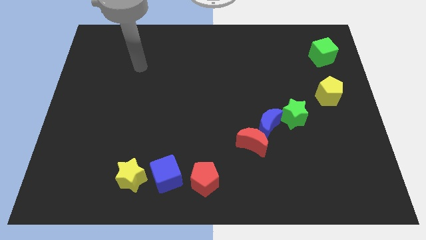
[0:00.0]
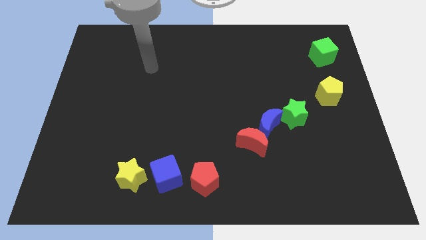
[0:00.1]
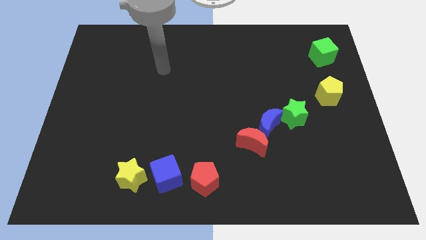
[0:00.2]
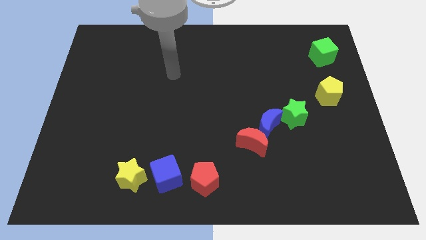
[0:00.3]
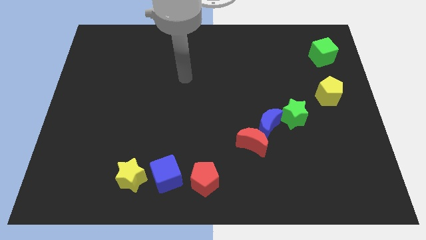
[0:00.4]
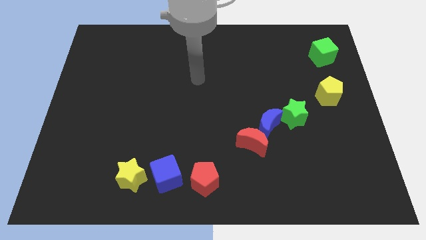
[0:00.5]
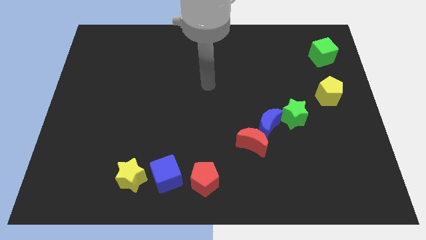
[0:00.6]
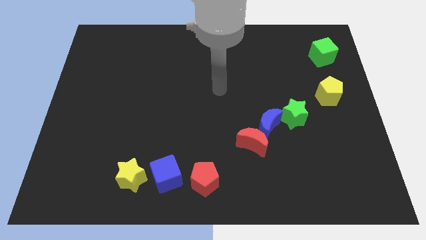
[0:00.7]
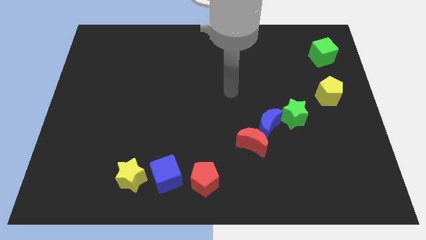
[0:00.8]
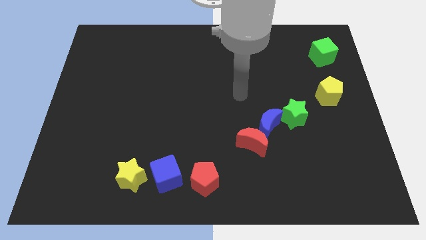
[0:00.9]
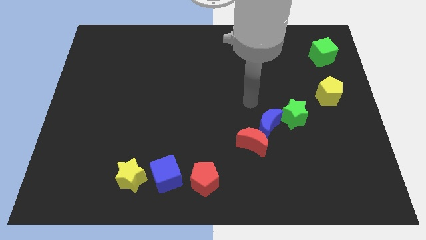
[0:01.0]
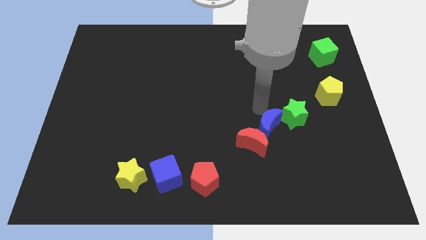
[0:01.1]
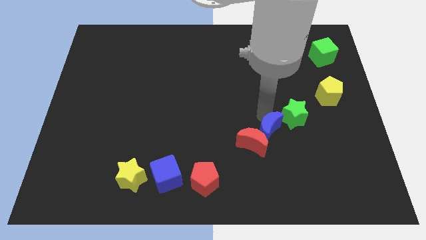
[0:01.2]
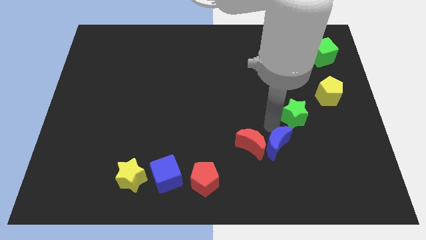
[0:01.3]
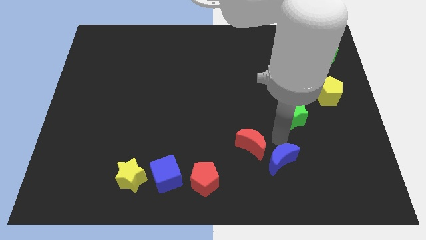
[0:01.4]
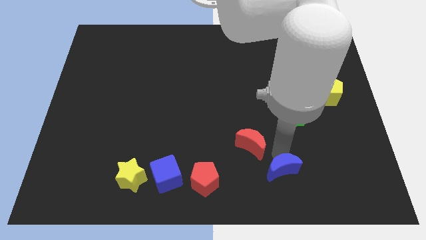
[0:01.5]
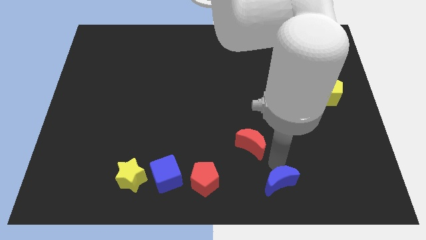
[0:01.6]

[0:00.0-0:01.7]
move the red moon away from the blue moon

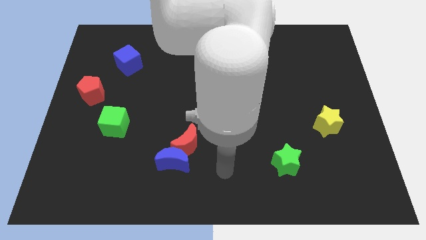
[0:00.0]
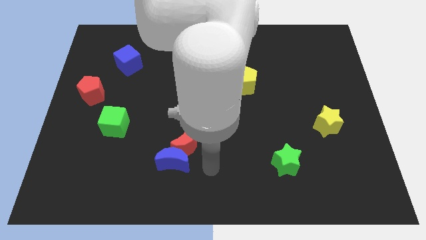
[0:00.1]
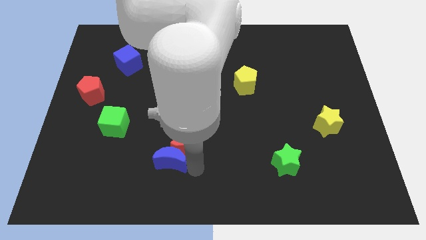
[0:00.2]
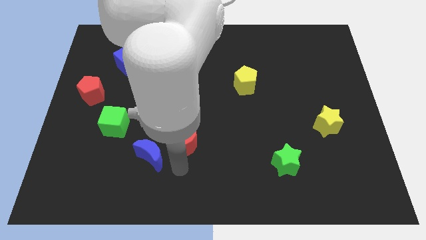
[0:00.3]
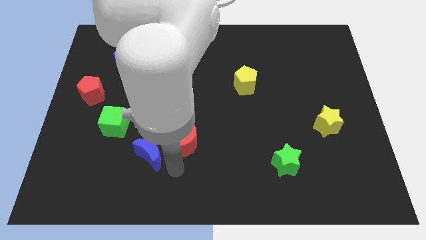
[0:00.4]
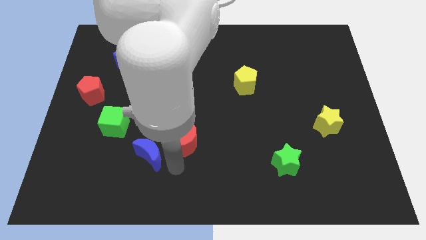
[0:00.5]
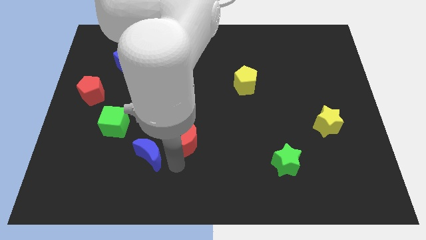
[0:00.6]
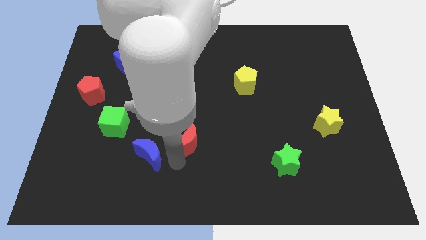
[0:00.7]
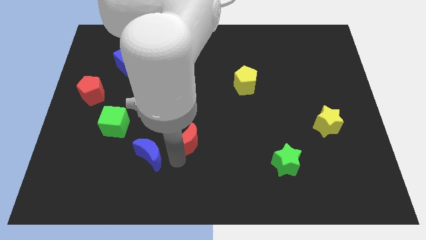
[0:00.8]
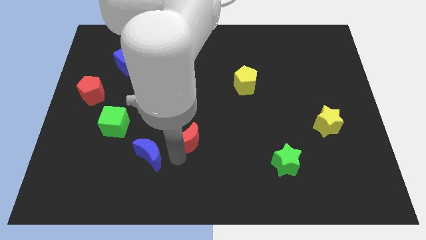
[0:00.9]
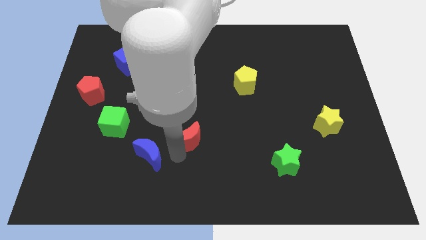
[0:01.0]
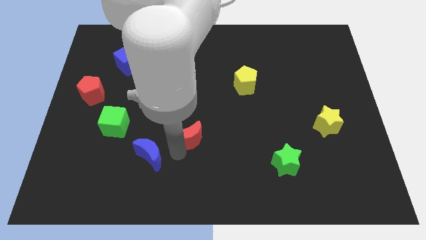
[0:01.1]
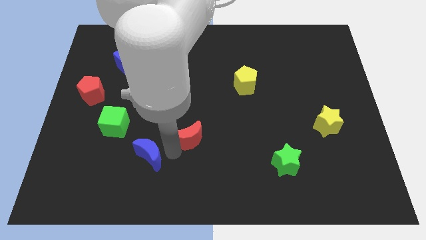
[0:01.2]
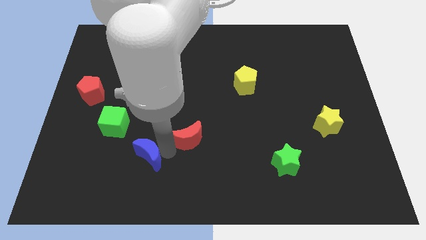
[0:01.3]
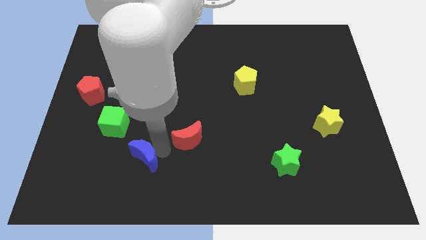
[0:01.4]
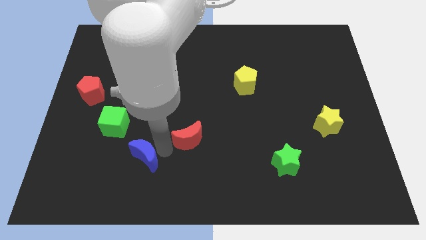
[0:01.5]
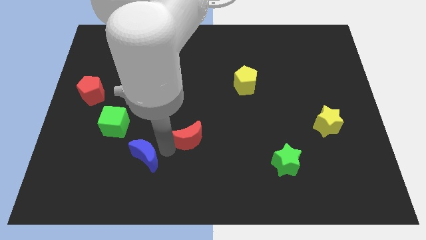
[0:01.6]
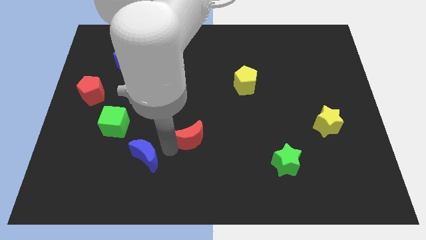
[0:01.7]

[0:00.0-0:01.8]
separate the red moon from the blue moon

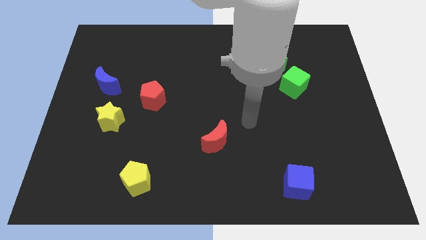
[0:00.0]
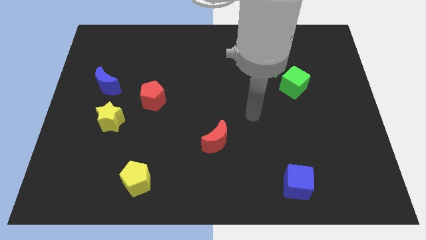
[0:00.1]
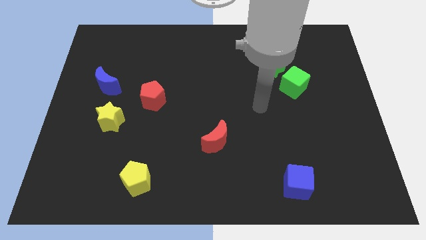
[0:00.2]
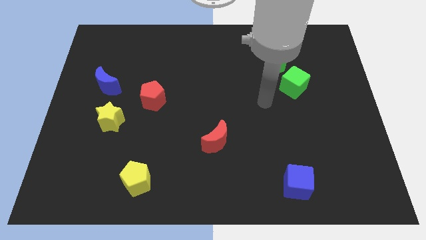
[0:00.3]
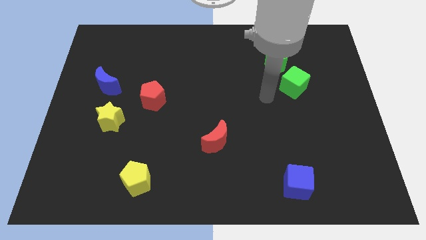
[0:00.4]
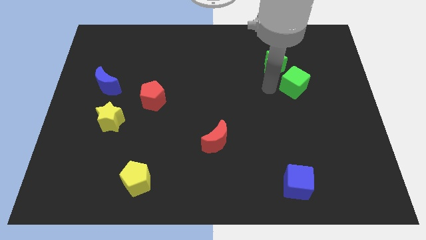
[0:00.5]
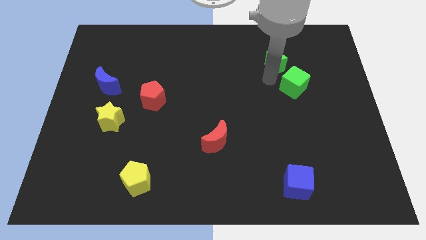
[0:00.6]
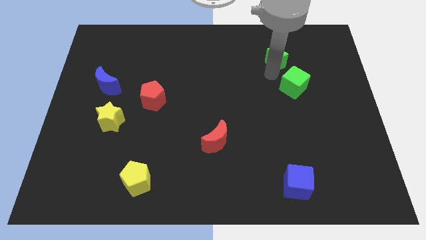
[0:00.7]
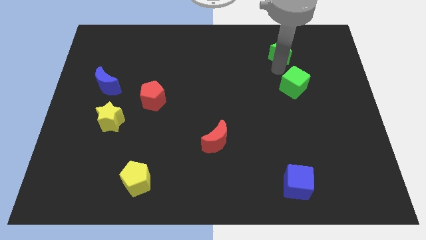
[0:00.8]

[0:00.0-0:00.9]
move the green cube away from the green star

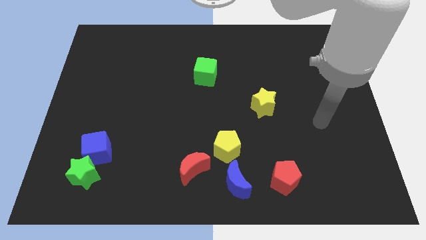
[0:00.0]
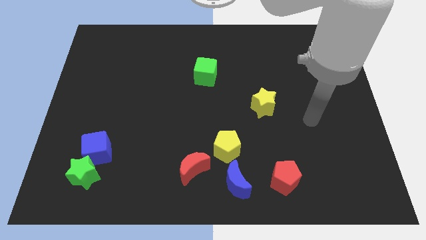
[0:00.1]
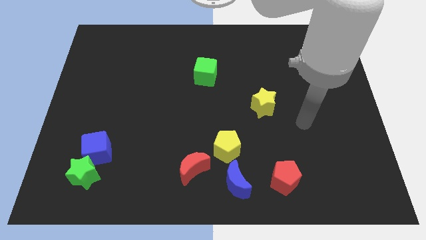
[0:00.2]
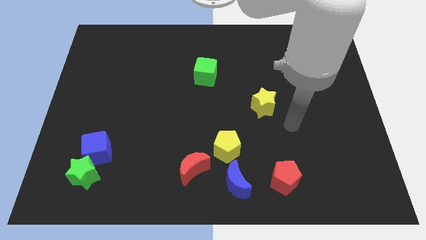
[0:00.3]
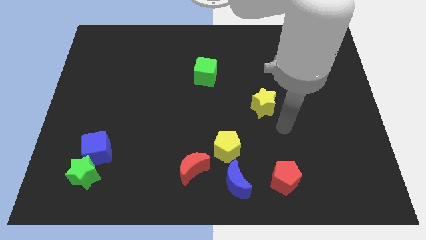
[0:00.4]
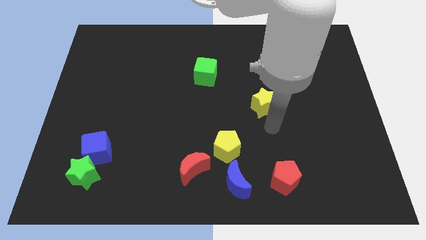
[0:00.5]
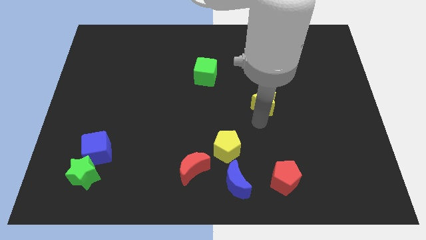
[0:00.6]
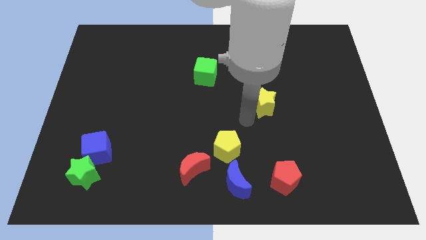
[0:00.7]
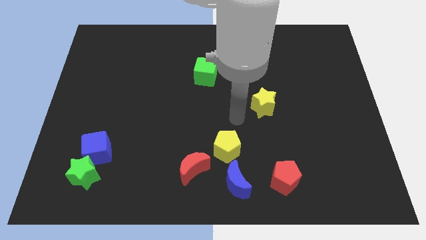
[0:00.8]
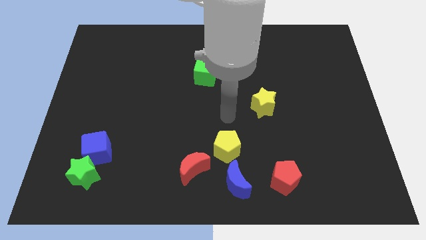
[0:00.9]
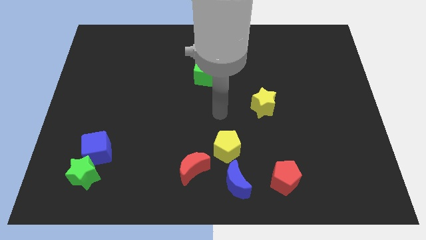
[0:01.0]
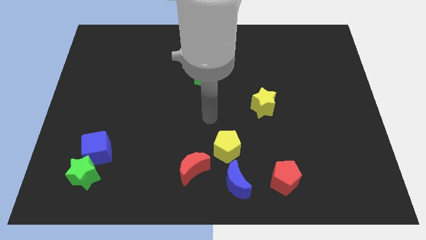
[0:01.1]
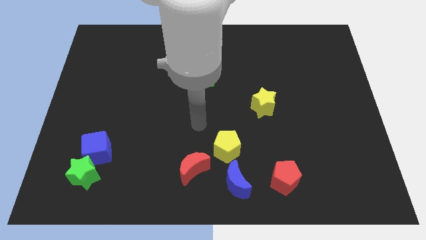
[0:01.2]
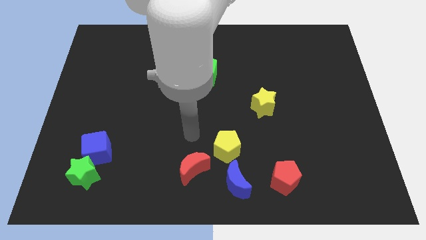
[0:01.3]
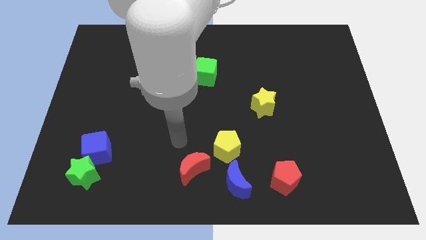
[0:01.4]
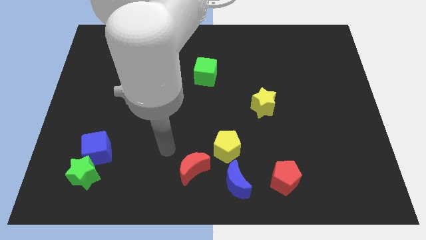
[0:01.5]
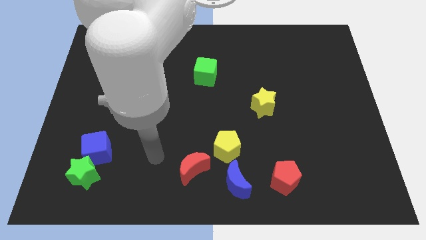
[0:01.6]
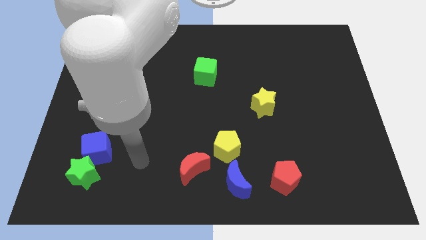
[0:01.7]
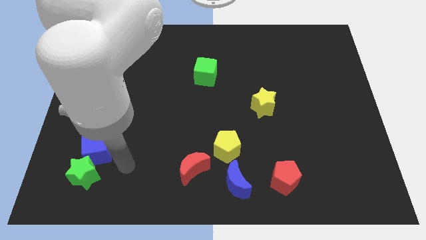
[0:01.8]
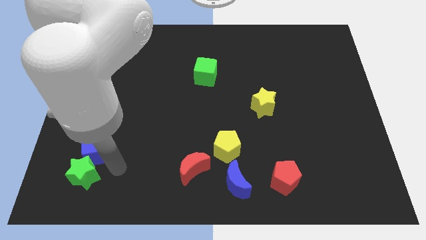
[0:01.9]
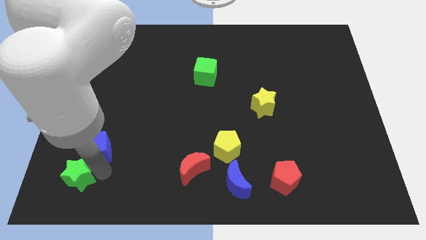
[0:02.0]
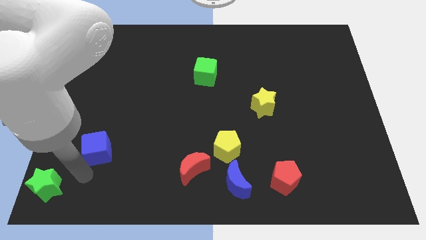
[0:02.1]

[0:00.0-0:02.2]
pull the blue cube apart from the green star

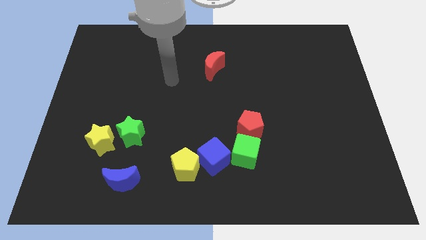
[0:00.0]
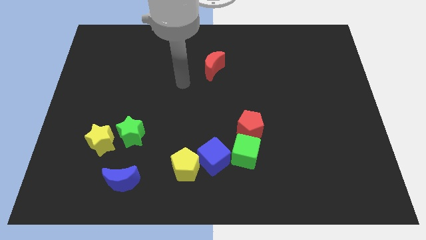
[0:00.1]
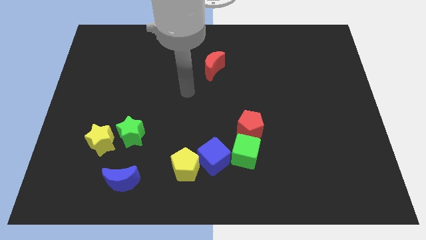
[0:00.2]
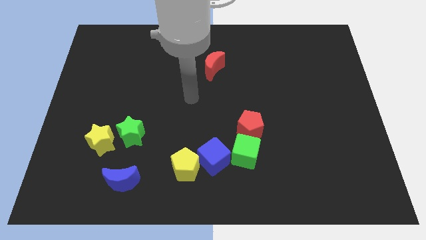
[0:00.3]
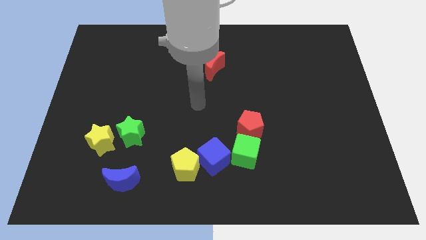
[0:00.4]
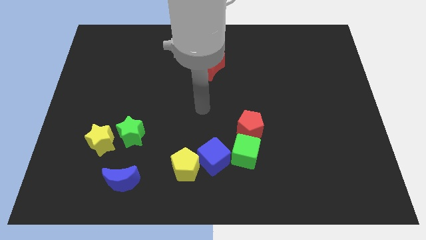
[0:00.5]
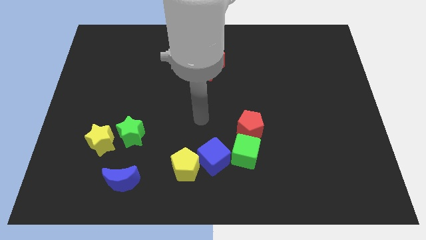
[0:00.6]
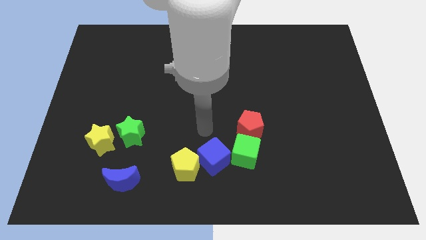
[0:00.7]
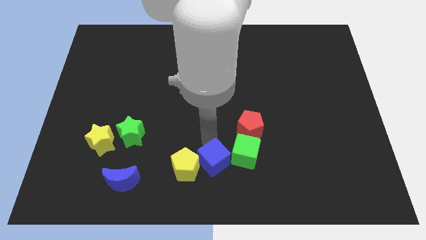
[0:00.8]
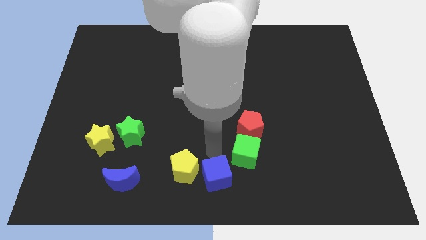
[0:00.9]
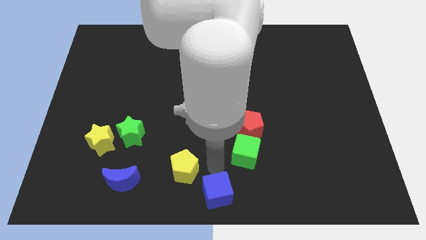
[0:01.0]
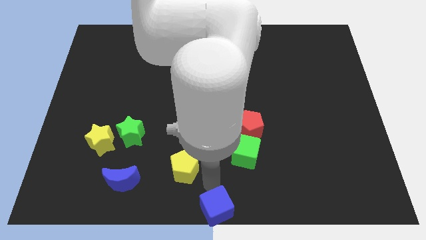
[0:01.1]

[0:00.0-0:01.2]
pull the yellow pentagon apart from the blue cube

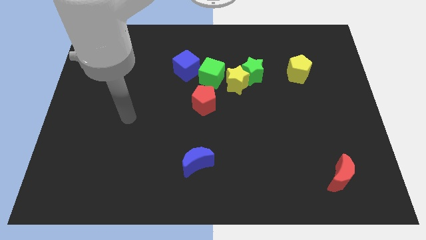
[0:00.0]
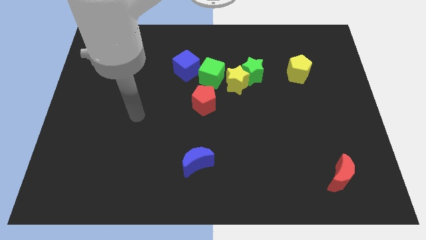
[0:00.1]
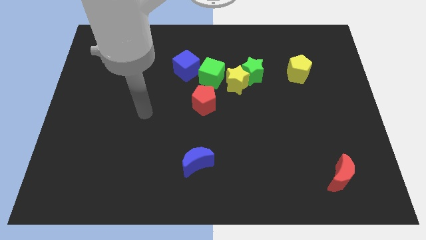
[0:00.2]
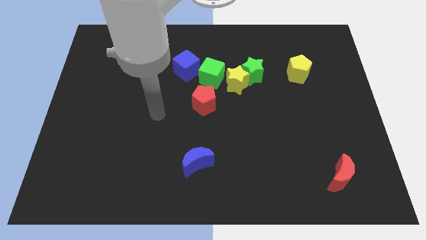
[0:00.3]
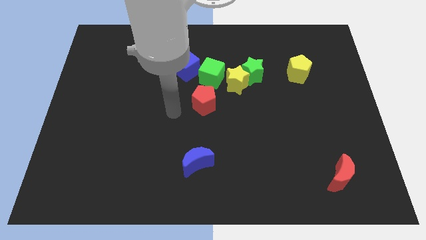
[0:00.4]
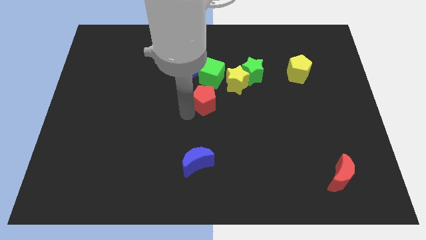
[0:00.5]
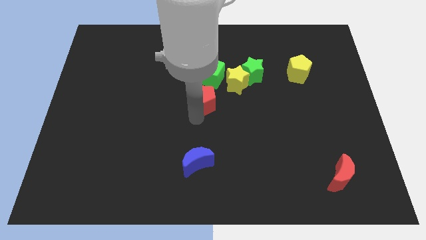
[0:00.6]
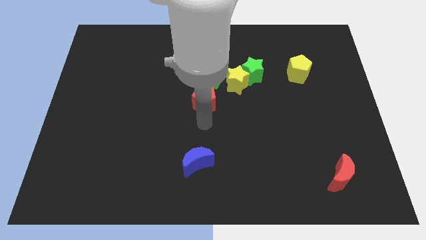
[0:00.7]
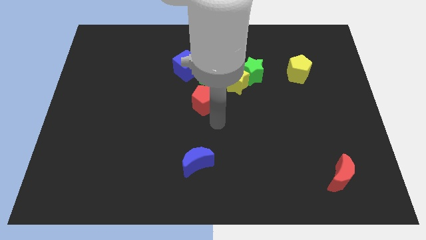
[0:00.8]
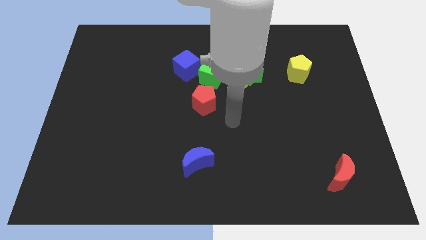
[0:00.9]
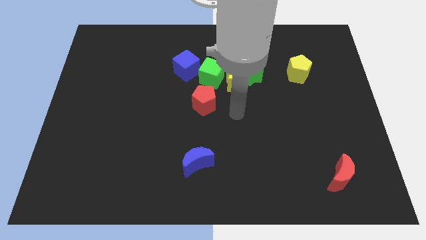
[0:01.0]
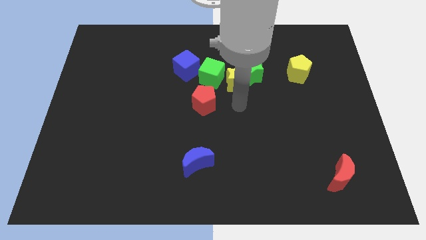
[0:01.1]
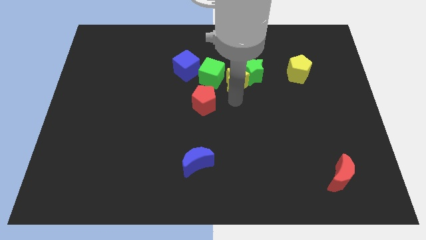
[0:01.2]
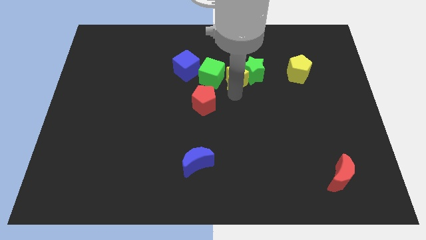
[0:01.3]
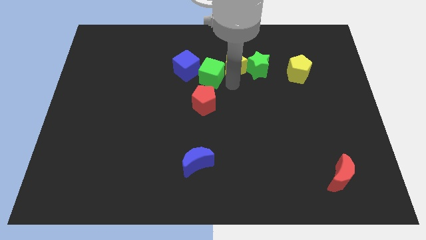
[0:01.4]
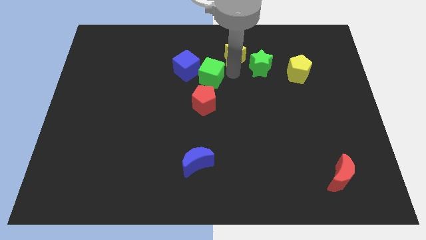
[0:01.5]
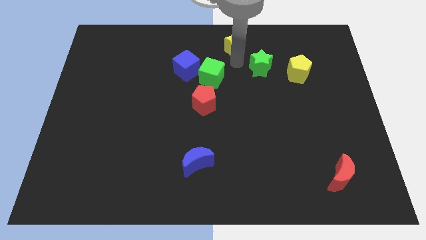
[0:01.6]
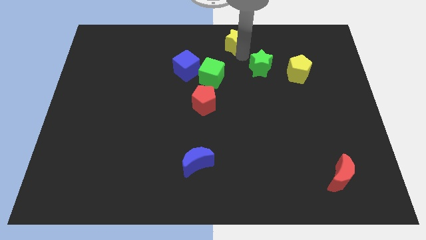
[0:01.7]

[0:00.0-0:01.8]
pull the green star apart from the yellow star
